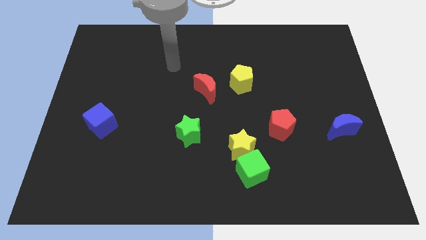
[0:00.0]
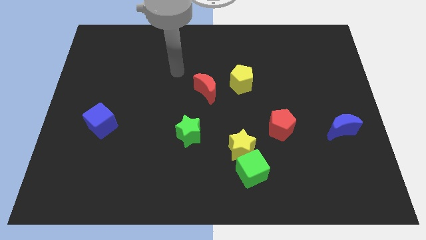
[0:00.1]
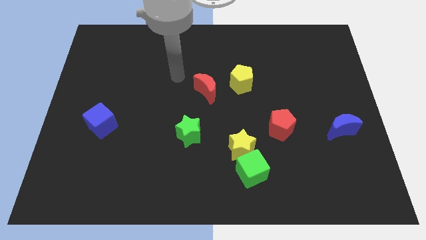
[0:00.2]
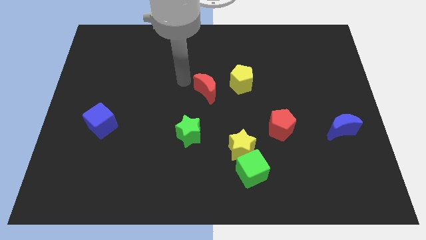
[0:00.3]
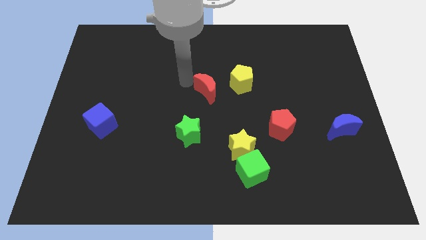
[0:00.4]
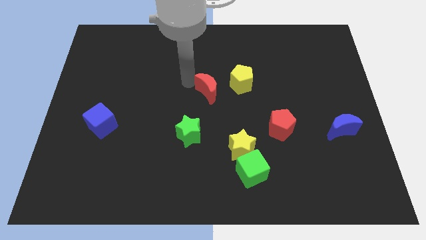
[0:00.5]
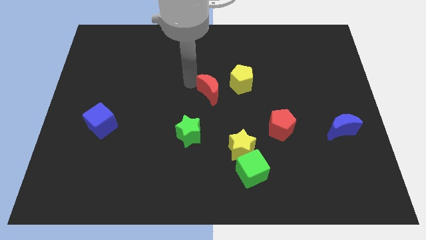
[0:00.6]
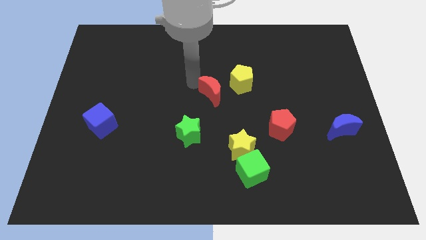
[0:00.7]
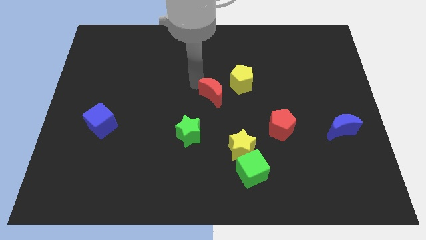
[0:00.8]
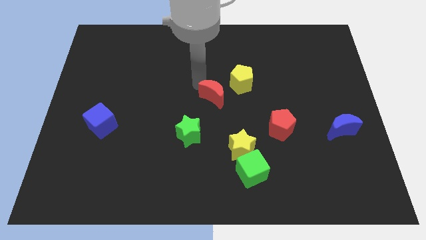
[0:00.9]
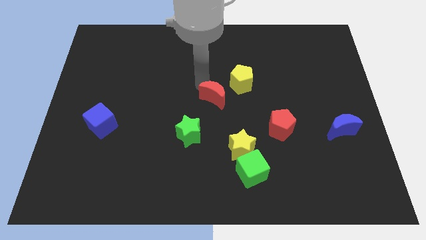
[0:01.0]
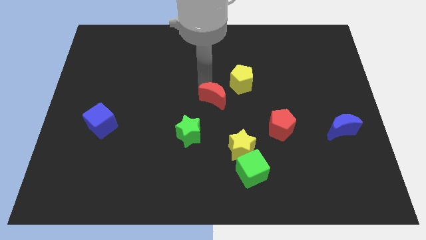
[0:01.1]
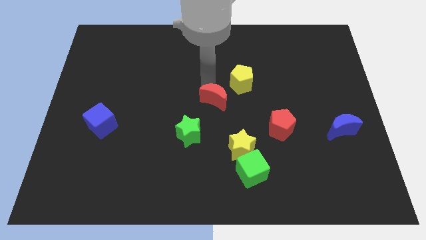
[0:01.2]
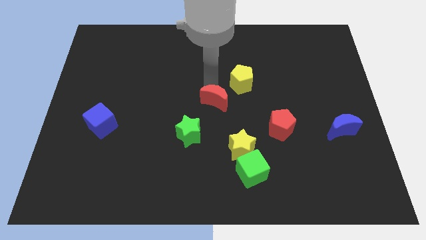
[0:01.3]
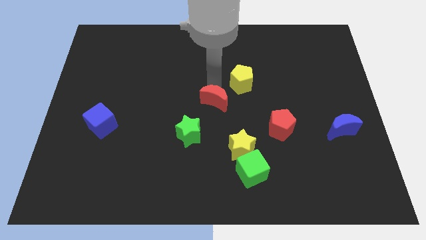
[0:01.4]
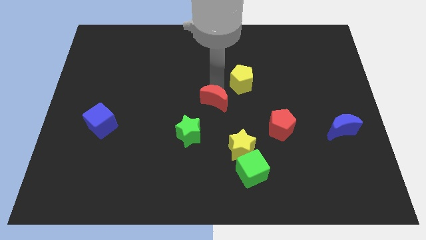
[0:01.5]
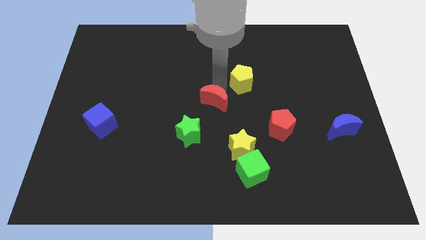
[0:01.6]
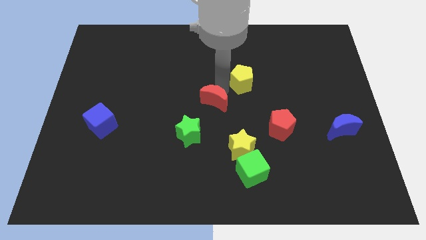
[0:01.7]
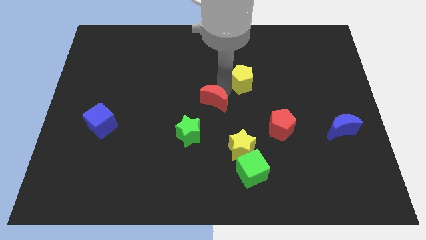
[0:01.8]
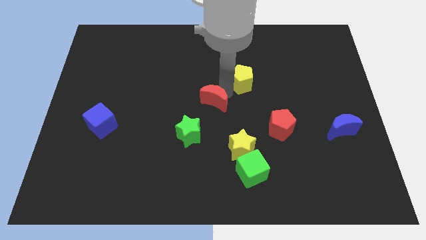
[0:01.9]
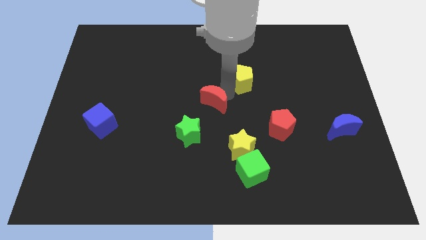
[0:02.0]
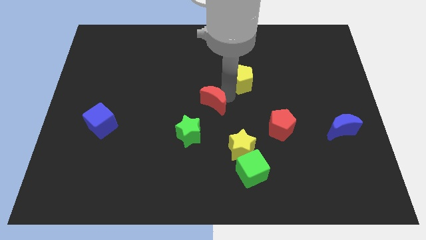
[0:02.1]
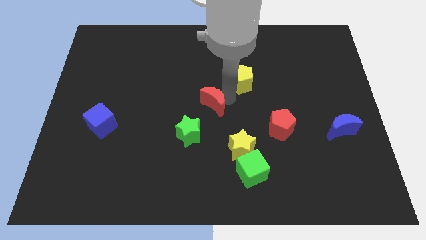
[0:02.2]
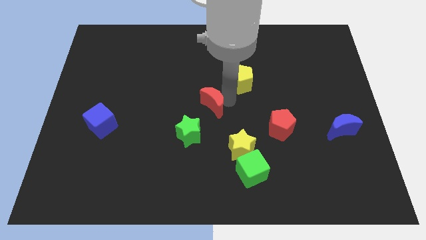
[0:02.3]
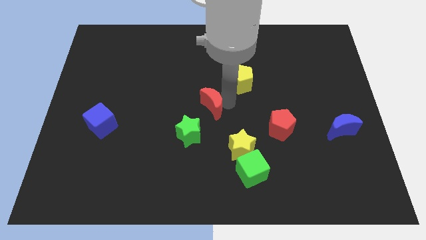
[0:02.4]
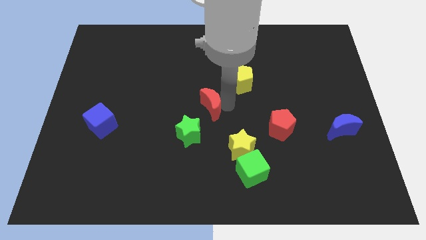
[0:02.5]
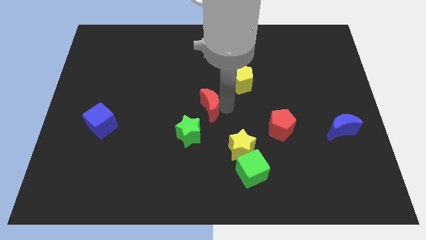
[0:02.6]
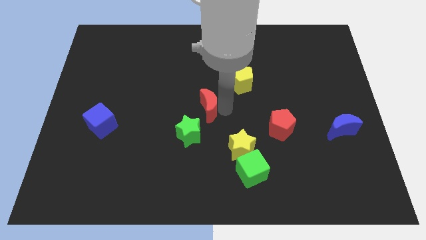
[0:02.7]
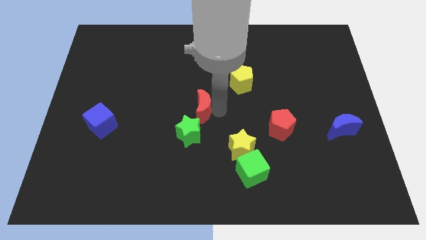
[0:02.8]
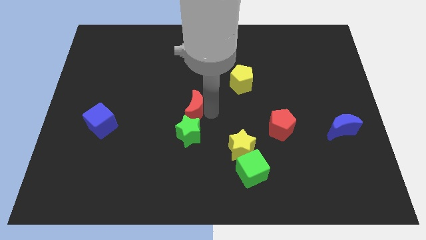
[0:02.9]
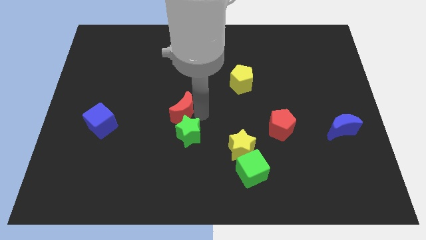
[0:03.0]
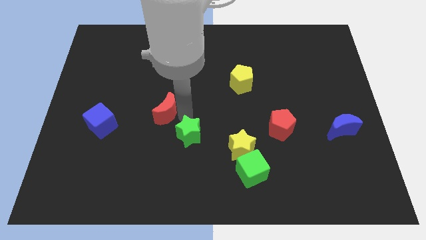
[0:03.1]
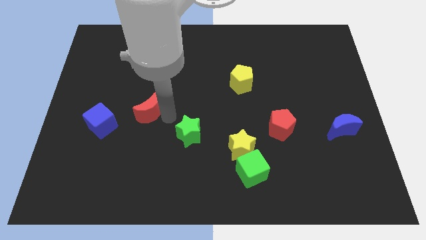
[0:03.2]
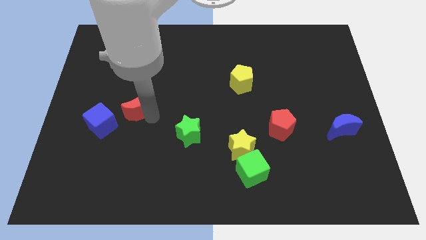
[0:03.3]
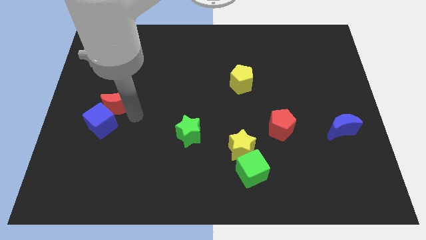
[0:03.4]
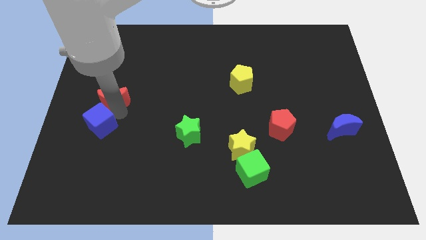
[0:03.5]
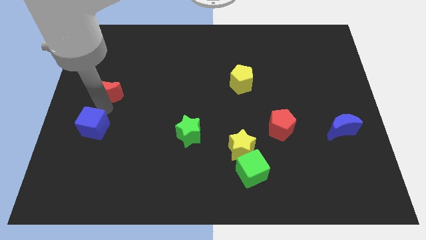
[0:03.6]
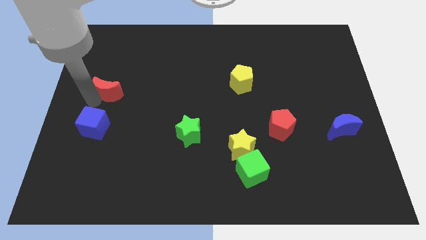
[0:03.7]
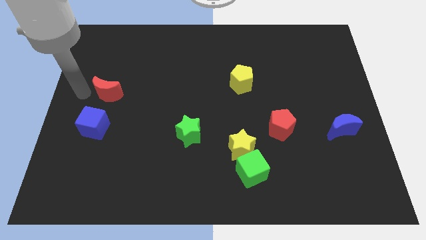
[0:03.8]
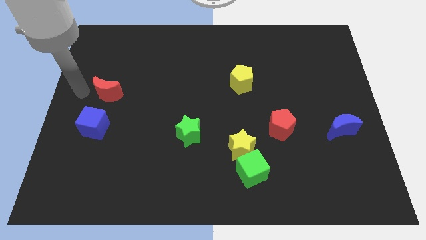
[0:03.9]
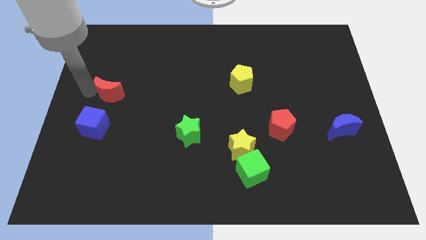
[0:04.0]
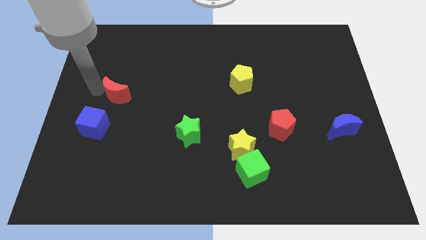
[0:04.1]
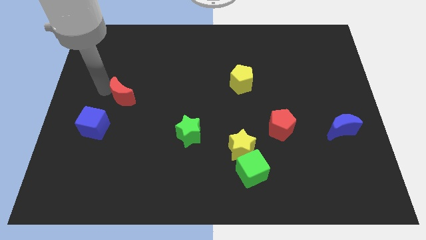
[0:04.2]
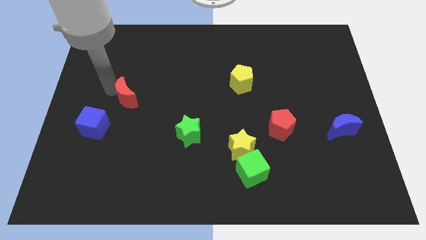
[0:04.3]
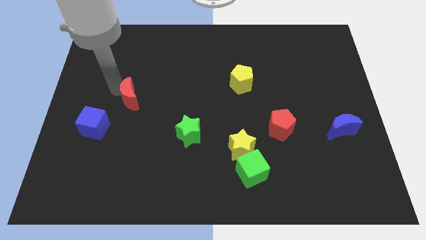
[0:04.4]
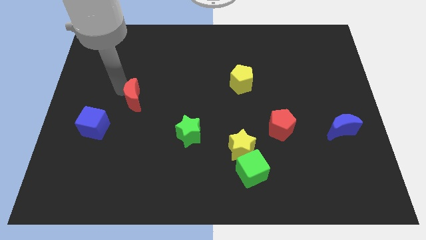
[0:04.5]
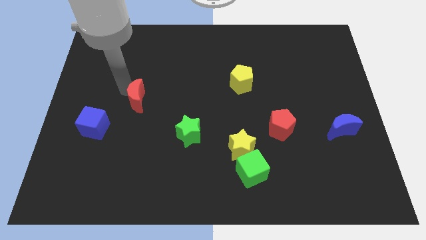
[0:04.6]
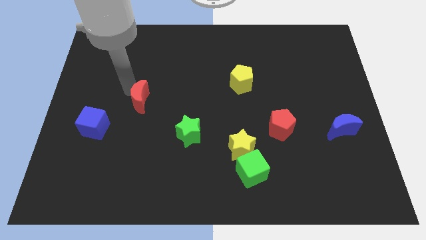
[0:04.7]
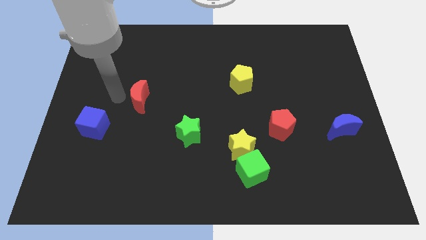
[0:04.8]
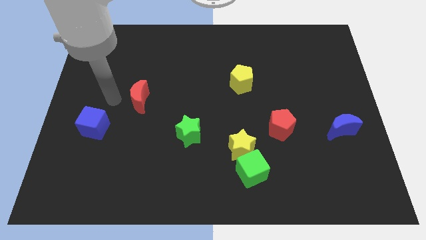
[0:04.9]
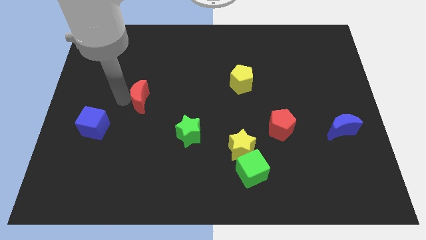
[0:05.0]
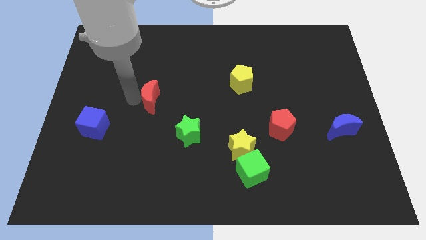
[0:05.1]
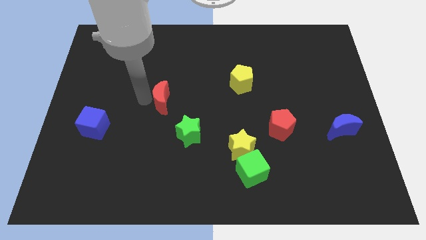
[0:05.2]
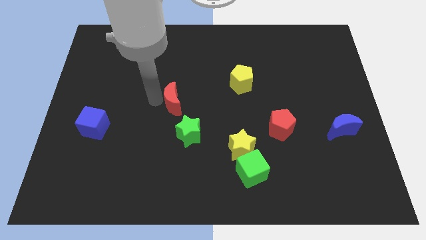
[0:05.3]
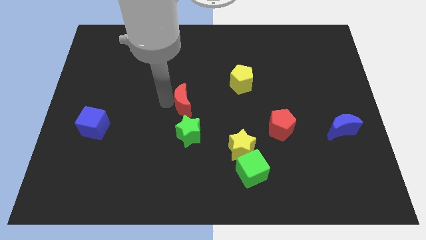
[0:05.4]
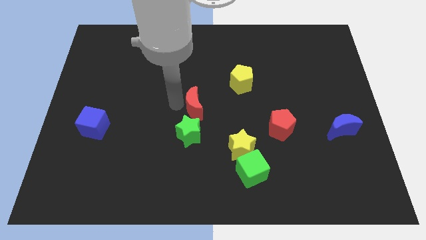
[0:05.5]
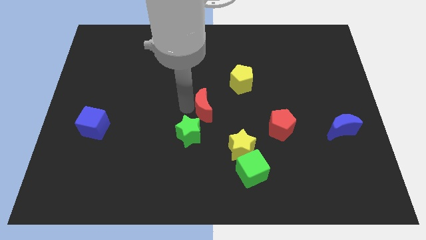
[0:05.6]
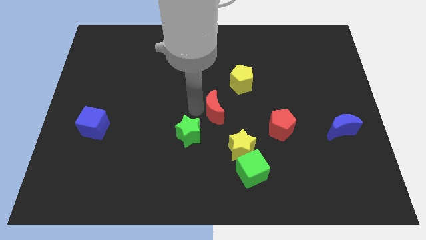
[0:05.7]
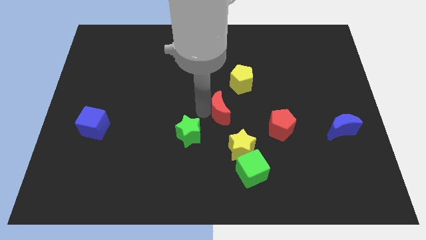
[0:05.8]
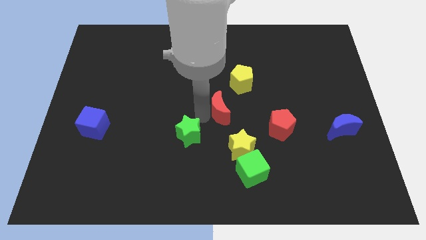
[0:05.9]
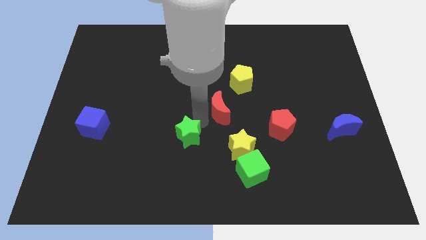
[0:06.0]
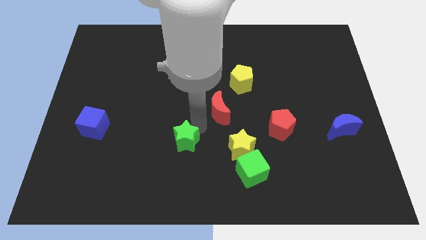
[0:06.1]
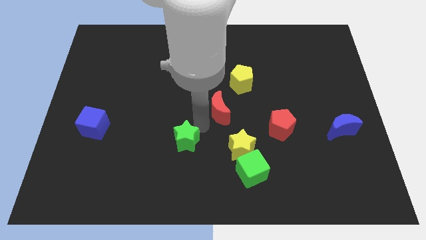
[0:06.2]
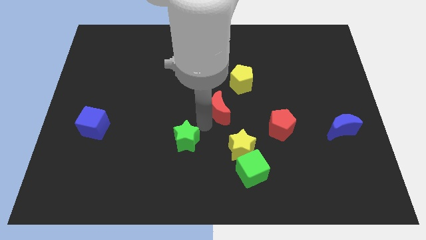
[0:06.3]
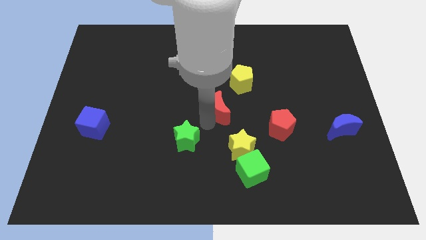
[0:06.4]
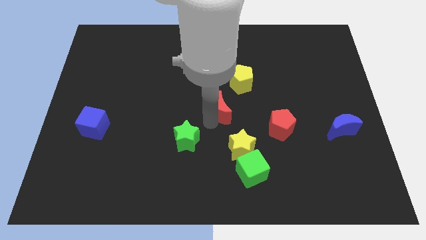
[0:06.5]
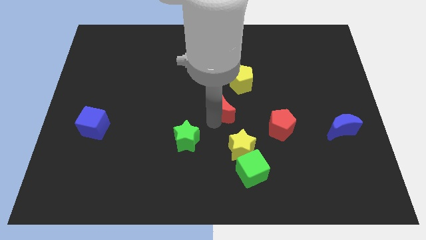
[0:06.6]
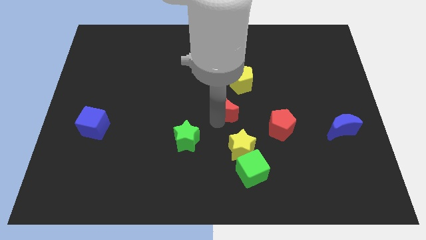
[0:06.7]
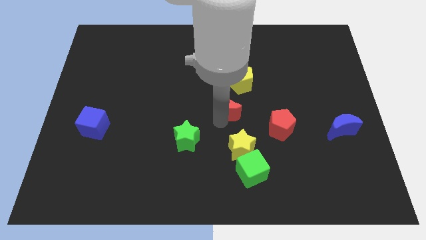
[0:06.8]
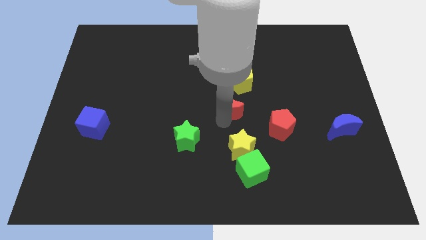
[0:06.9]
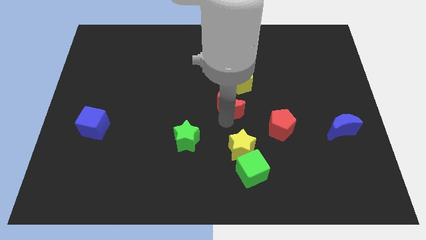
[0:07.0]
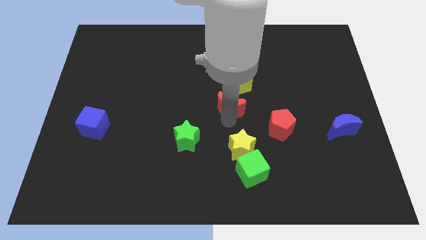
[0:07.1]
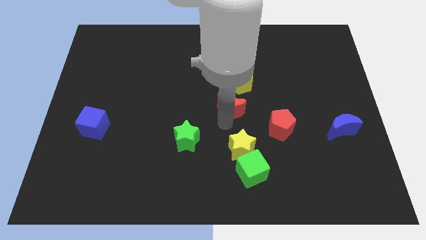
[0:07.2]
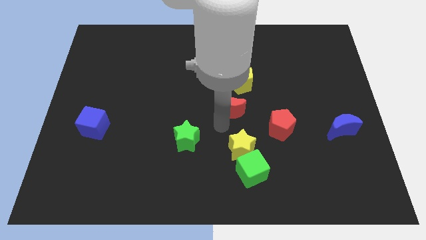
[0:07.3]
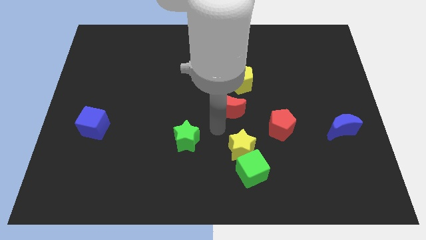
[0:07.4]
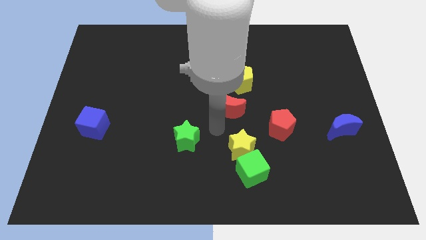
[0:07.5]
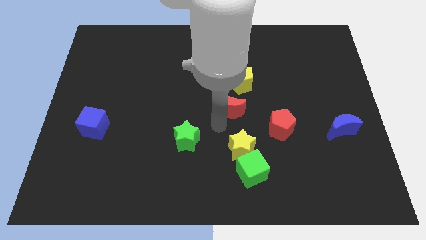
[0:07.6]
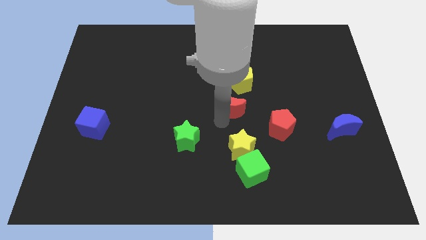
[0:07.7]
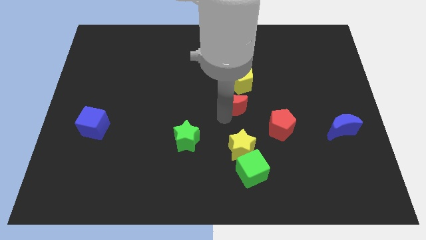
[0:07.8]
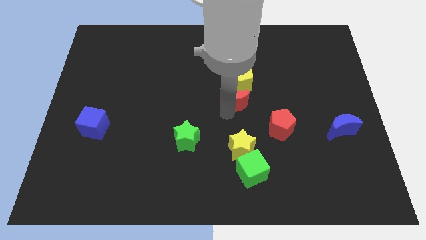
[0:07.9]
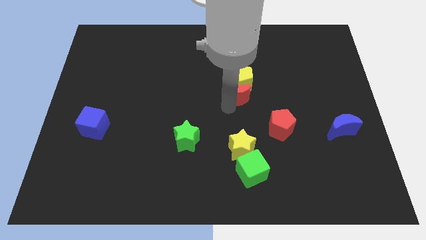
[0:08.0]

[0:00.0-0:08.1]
push the red moon right a bit

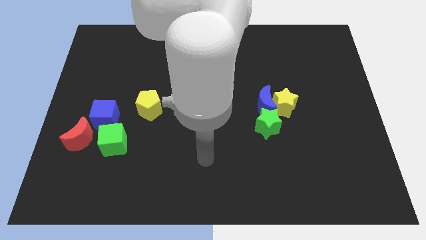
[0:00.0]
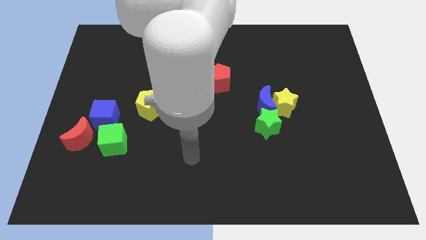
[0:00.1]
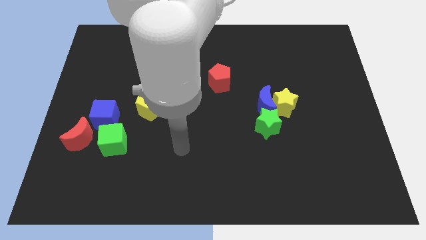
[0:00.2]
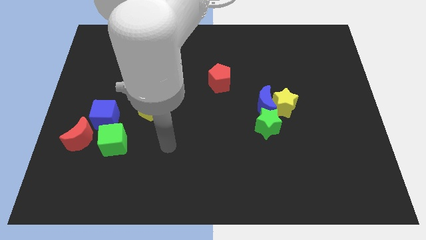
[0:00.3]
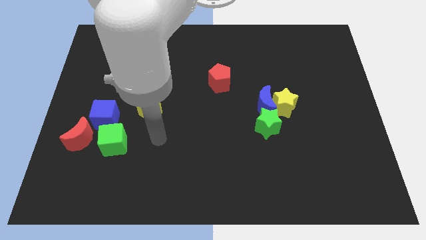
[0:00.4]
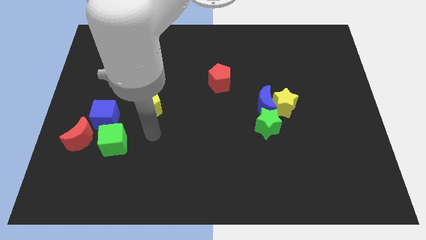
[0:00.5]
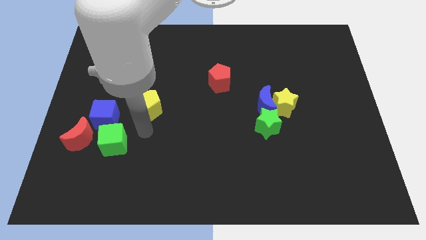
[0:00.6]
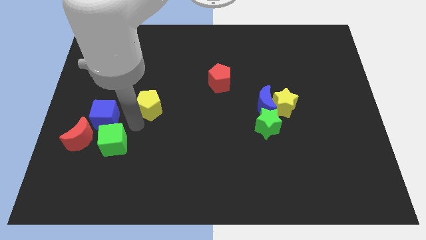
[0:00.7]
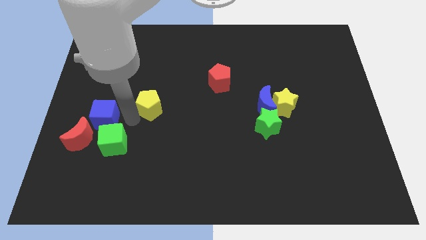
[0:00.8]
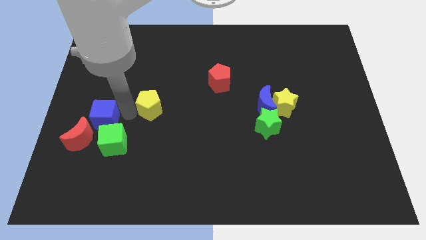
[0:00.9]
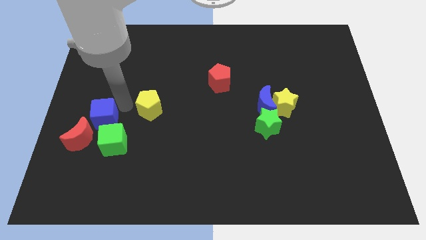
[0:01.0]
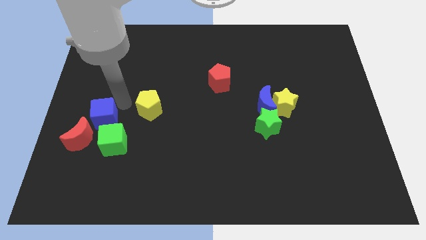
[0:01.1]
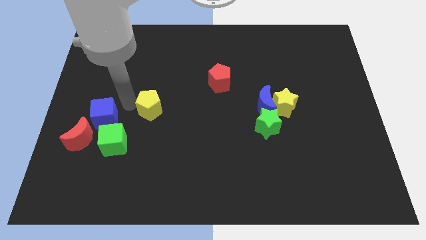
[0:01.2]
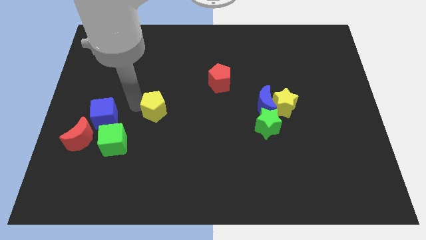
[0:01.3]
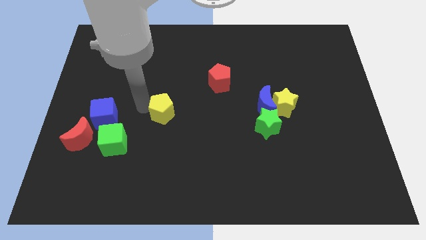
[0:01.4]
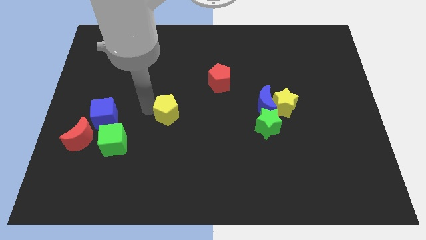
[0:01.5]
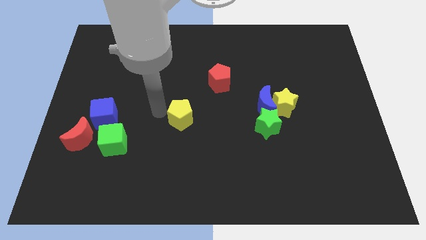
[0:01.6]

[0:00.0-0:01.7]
push the yellow pentagon a little right
